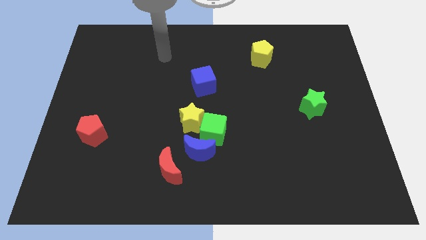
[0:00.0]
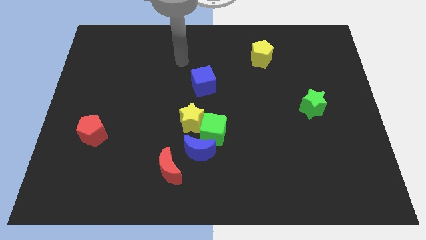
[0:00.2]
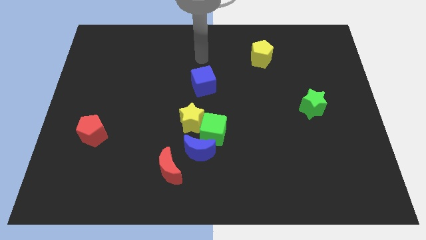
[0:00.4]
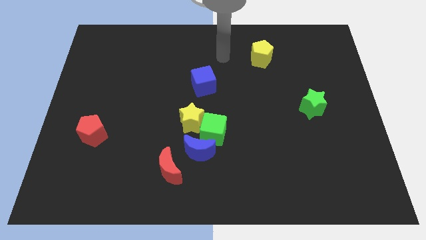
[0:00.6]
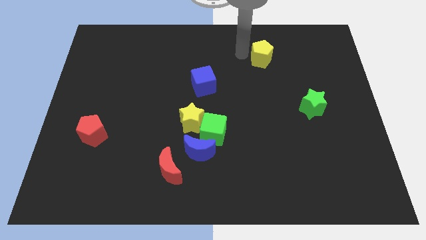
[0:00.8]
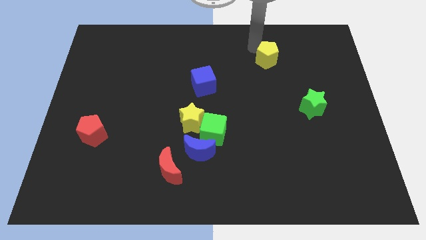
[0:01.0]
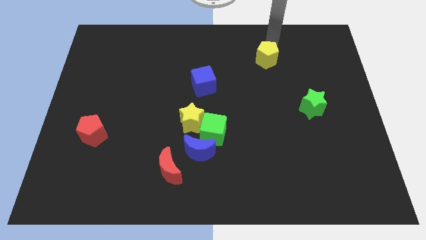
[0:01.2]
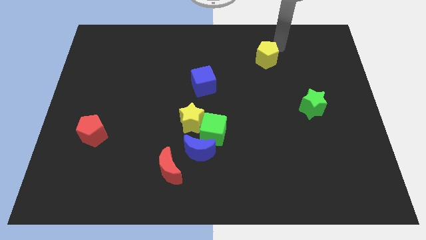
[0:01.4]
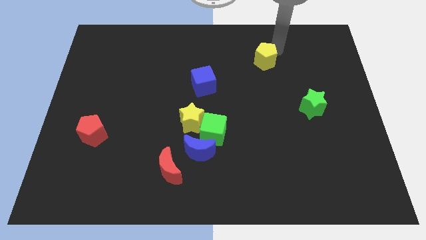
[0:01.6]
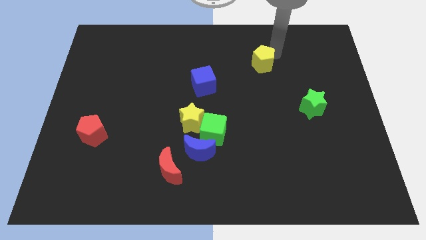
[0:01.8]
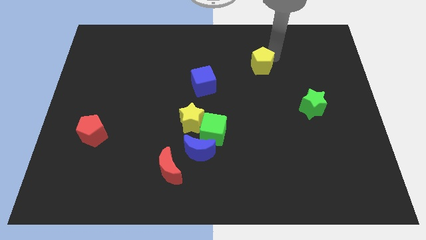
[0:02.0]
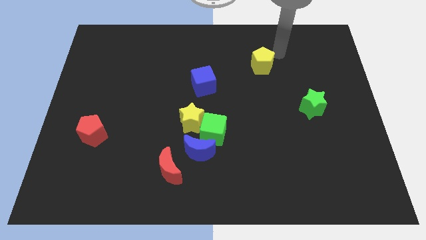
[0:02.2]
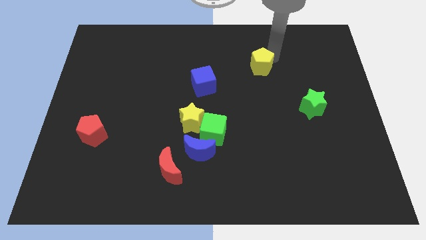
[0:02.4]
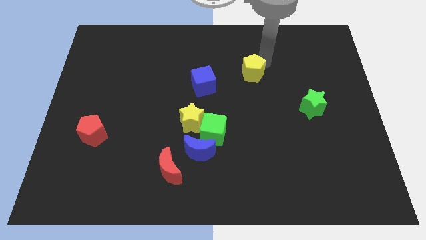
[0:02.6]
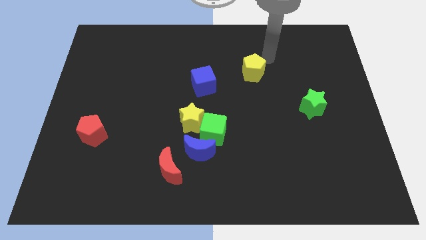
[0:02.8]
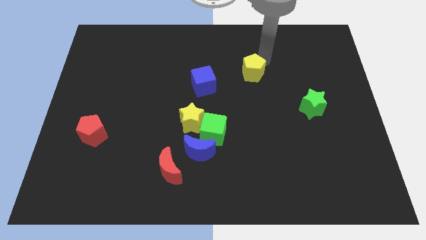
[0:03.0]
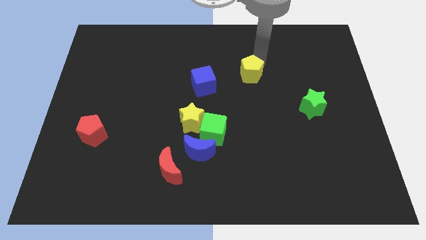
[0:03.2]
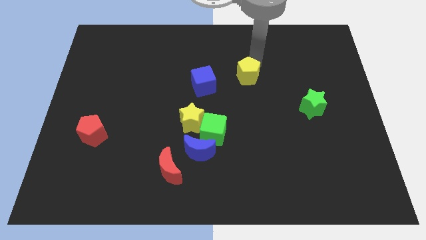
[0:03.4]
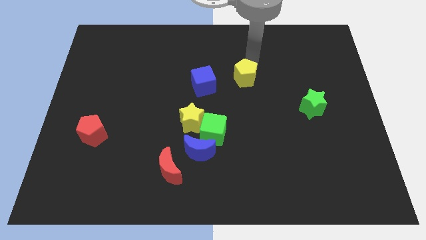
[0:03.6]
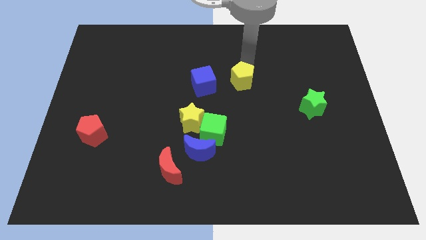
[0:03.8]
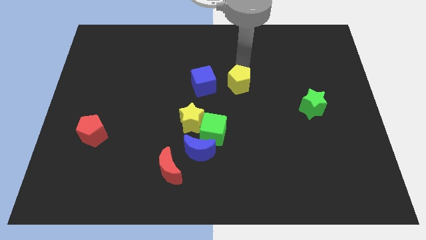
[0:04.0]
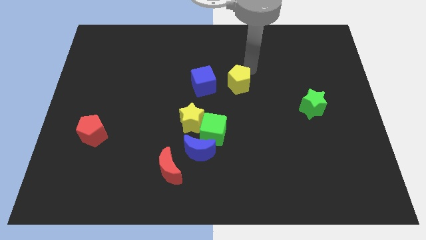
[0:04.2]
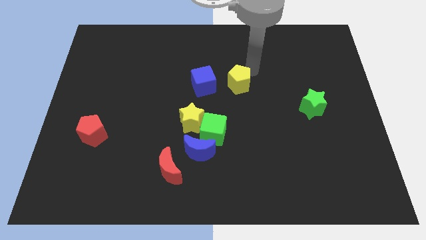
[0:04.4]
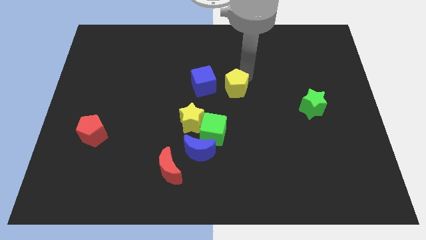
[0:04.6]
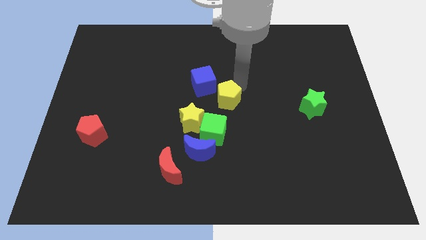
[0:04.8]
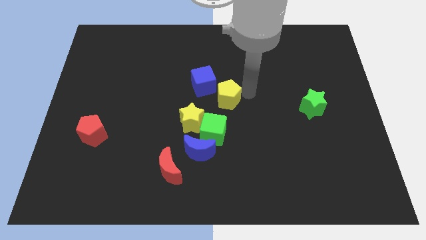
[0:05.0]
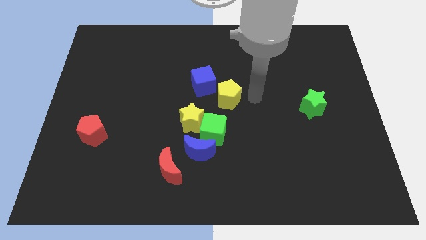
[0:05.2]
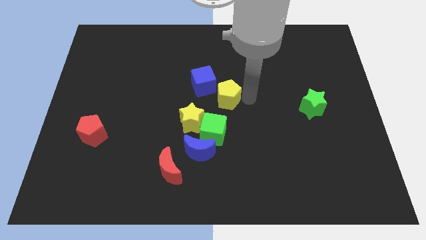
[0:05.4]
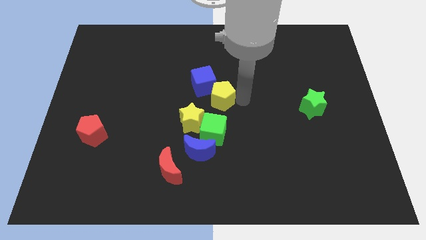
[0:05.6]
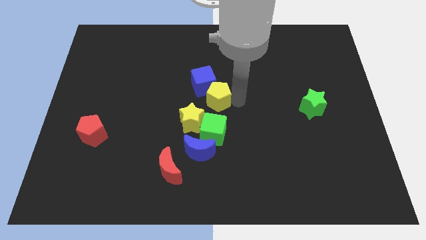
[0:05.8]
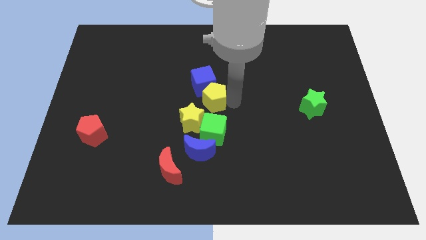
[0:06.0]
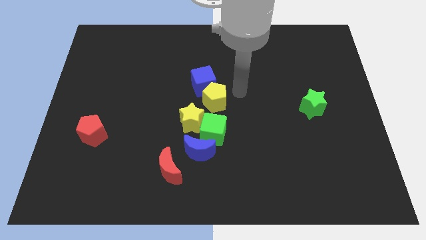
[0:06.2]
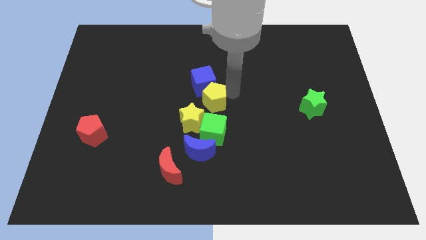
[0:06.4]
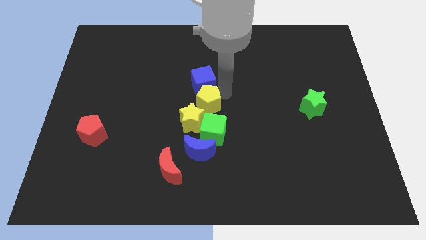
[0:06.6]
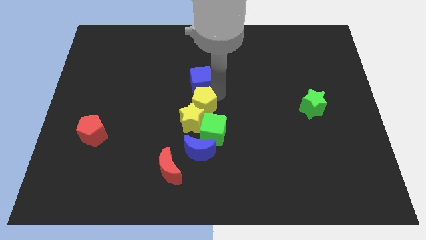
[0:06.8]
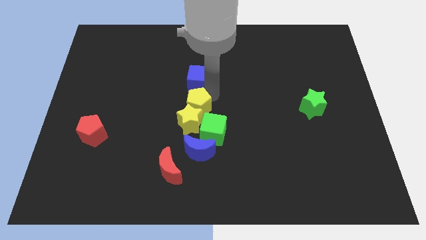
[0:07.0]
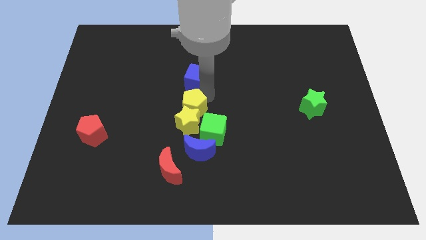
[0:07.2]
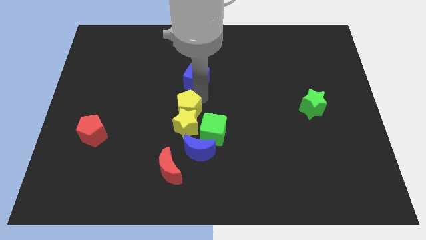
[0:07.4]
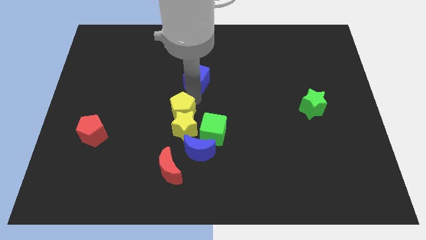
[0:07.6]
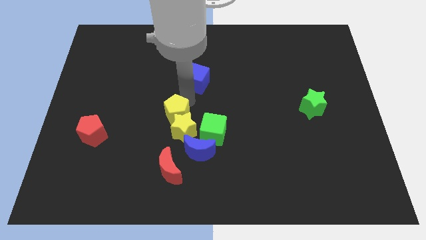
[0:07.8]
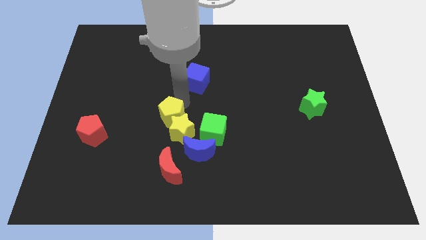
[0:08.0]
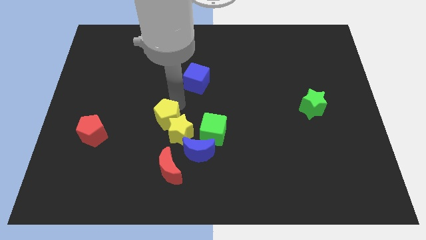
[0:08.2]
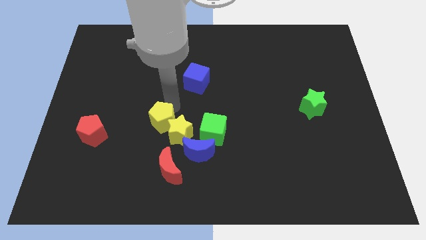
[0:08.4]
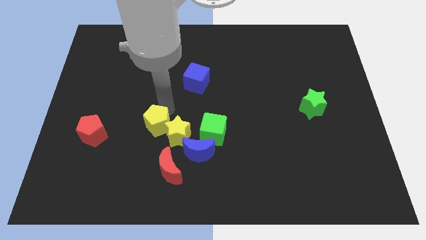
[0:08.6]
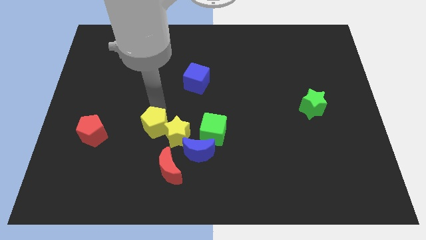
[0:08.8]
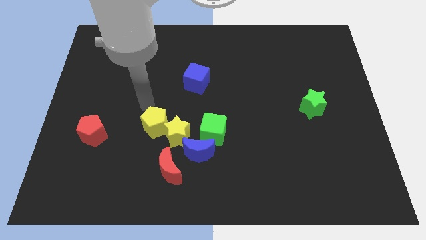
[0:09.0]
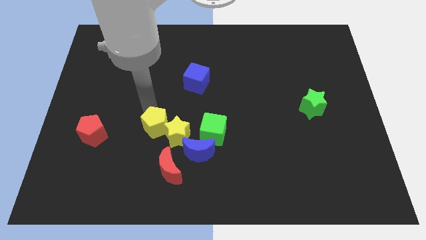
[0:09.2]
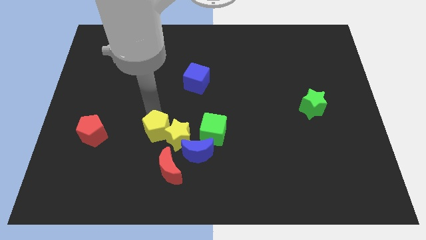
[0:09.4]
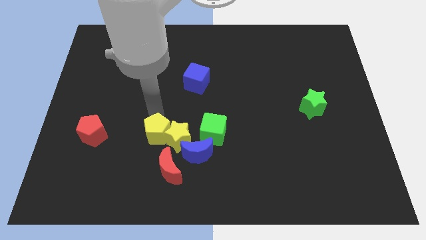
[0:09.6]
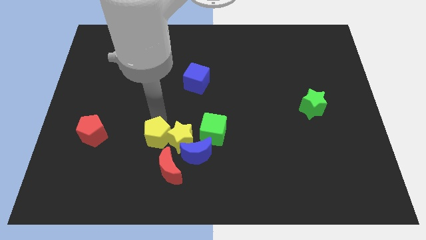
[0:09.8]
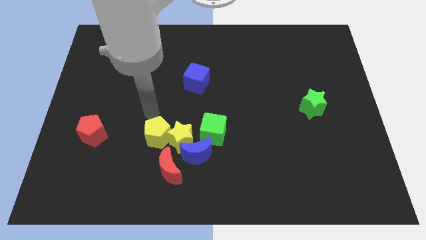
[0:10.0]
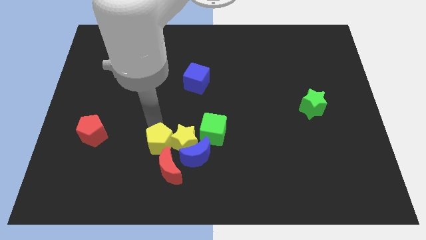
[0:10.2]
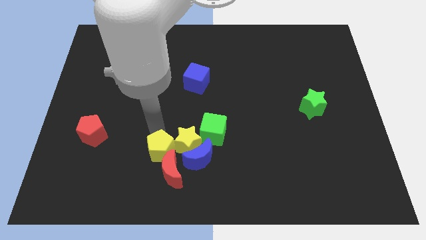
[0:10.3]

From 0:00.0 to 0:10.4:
push the yellow pentagon towards the red moon

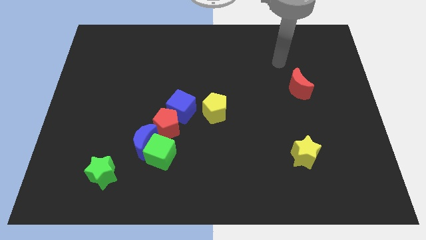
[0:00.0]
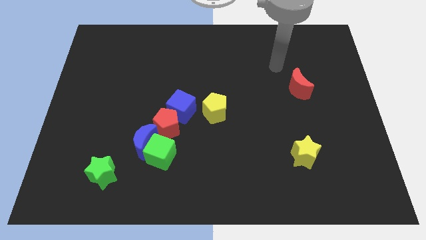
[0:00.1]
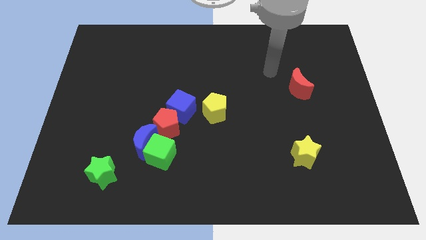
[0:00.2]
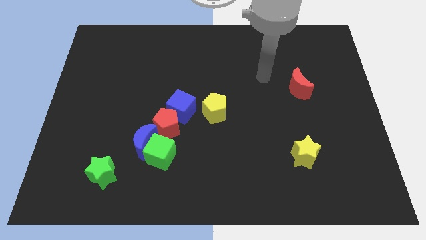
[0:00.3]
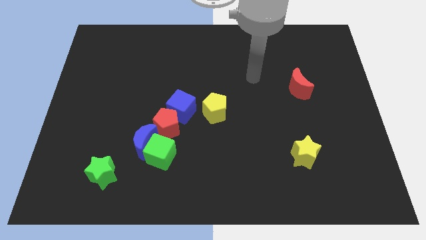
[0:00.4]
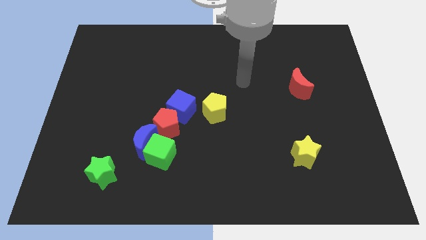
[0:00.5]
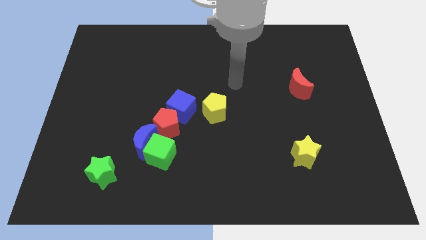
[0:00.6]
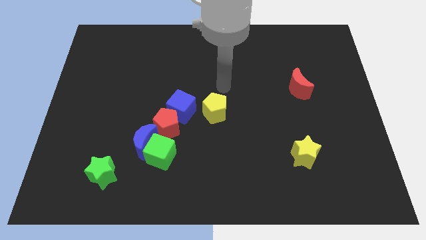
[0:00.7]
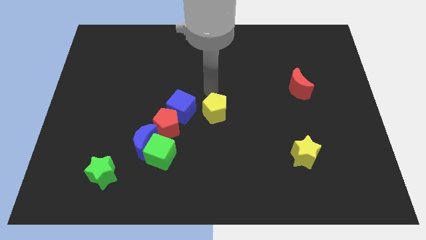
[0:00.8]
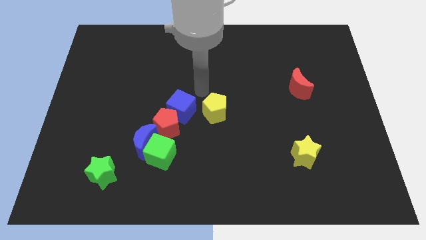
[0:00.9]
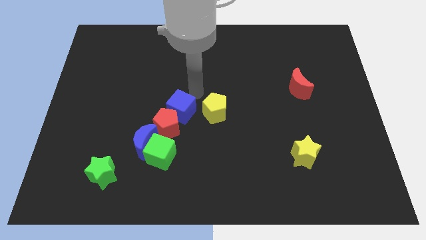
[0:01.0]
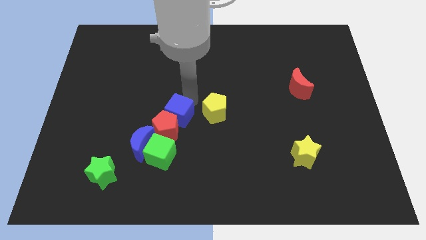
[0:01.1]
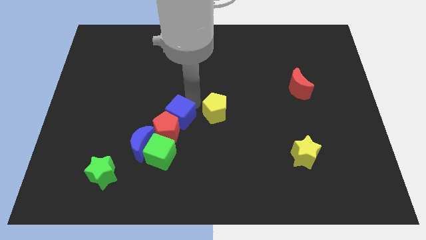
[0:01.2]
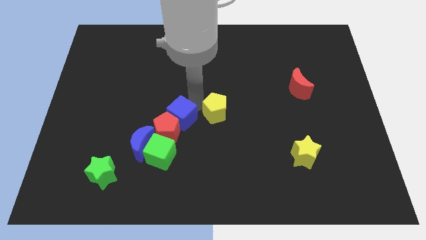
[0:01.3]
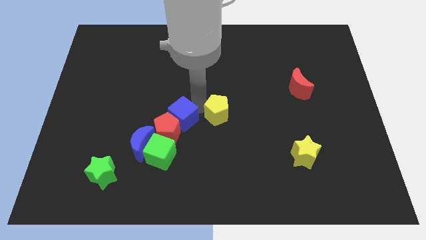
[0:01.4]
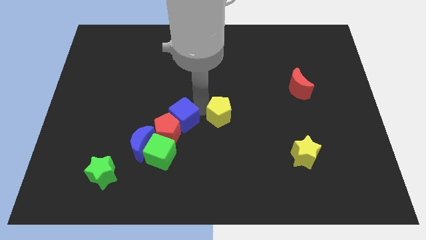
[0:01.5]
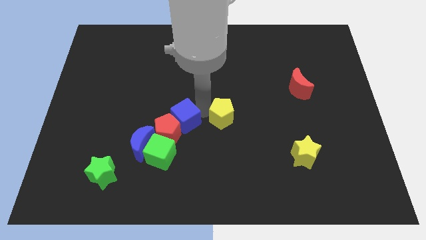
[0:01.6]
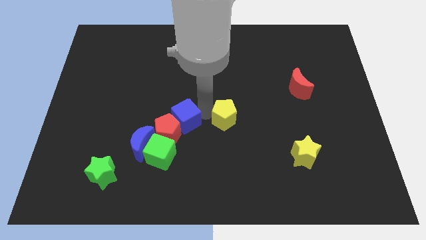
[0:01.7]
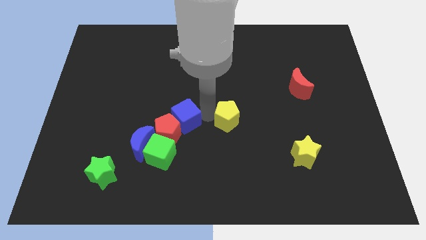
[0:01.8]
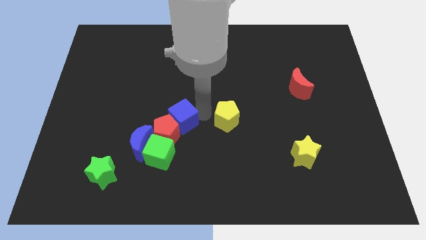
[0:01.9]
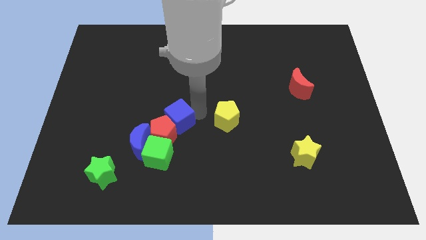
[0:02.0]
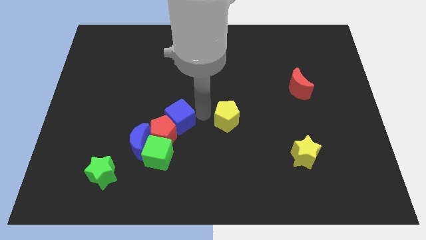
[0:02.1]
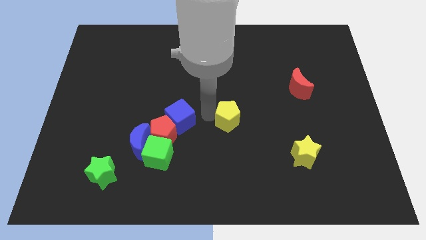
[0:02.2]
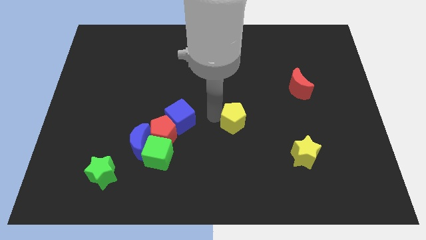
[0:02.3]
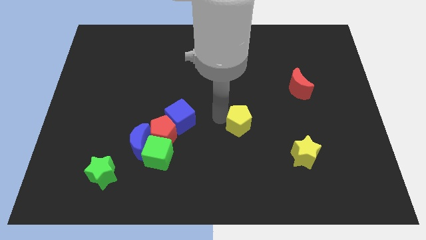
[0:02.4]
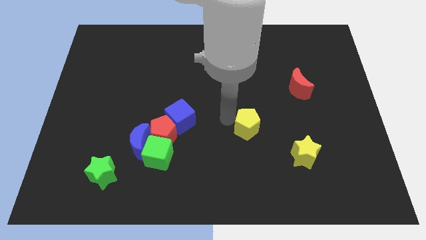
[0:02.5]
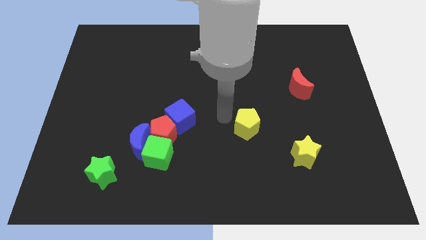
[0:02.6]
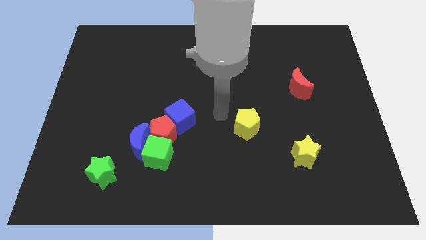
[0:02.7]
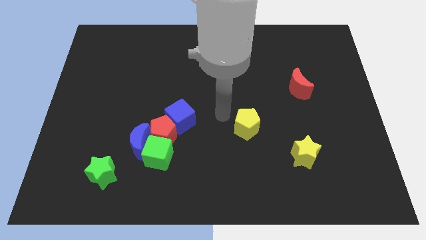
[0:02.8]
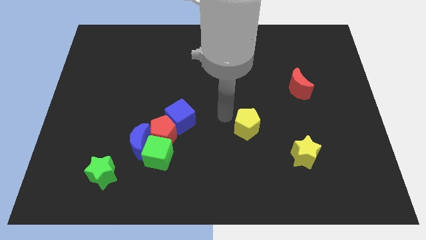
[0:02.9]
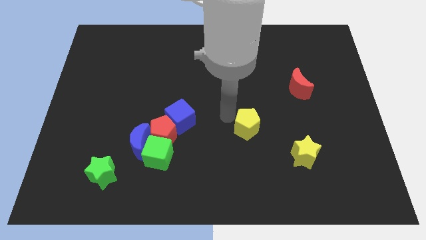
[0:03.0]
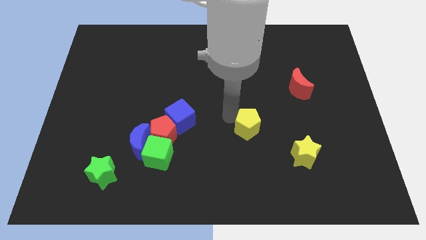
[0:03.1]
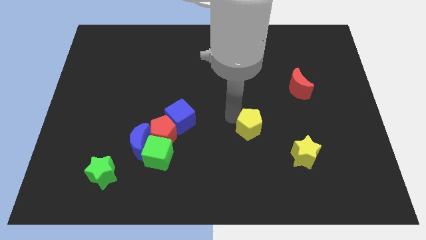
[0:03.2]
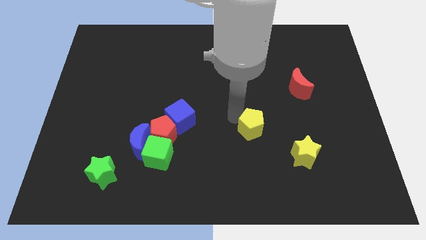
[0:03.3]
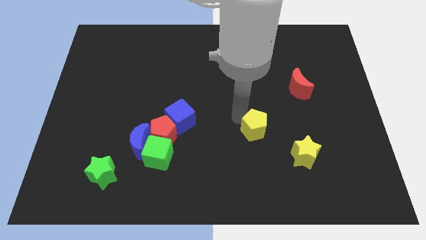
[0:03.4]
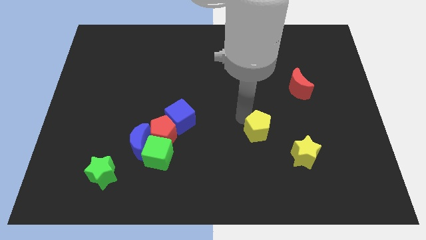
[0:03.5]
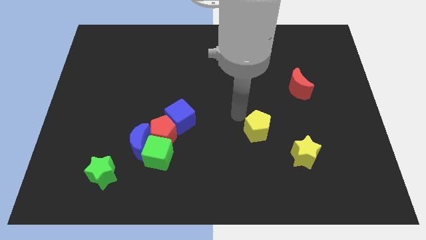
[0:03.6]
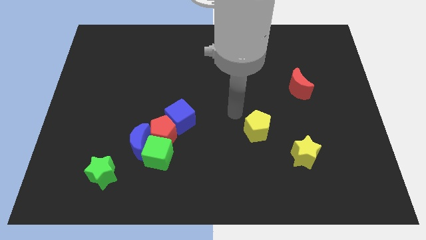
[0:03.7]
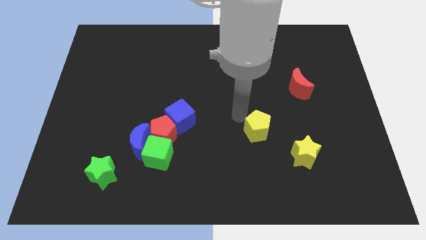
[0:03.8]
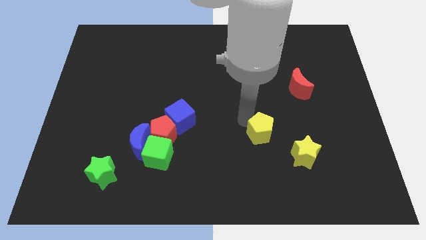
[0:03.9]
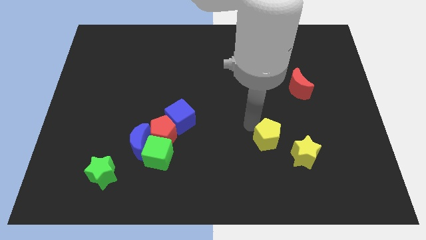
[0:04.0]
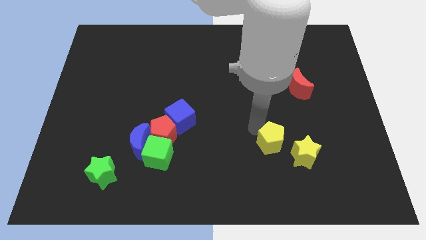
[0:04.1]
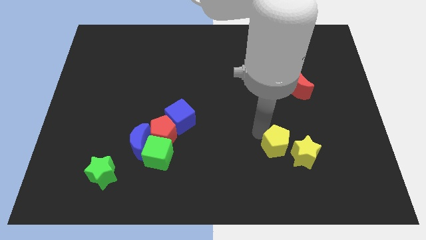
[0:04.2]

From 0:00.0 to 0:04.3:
push the yellow pentagon close to the yellow star
